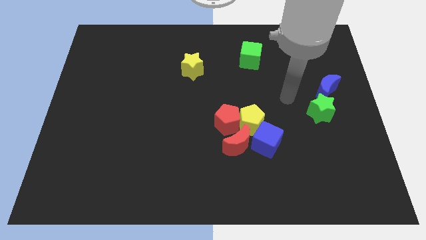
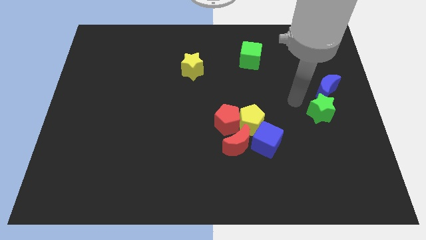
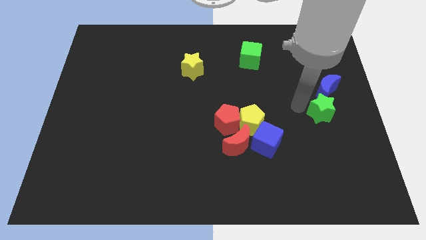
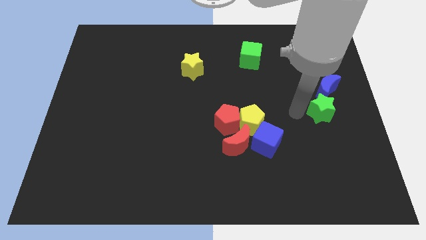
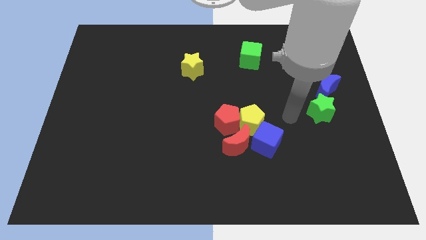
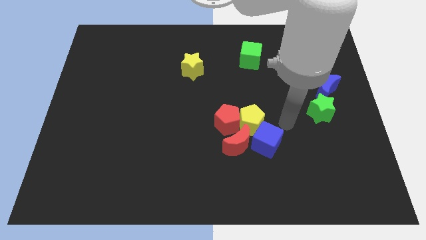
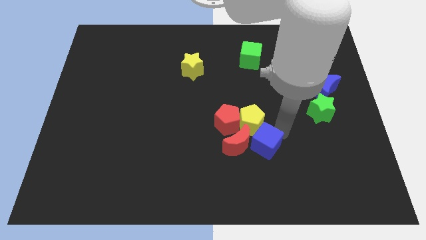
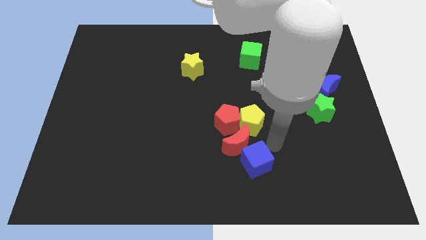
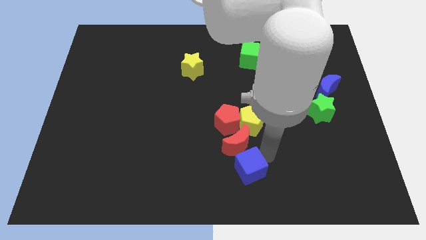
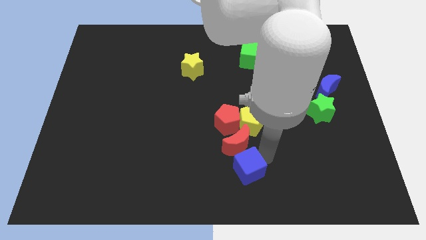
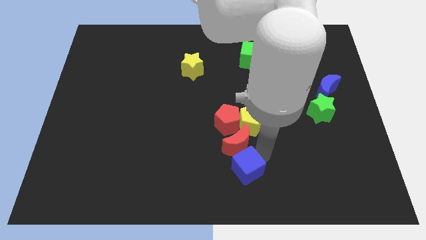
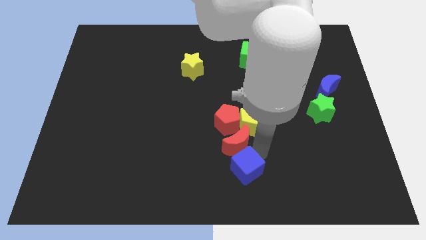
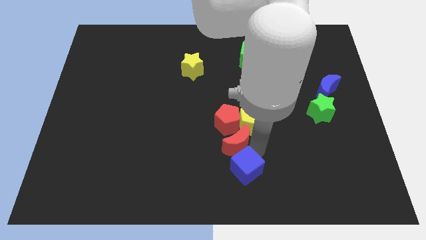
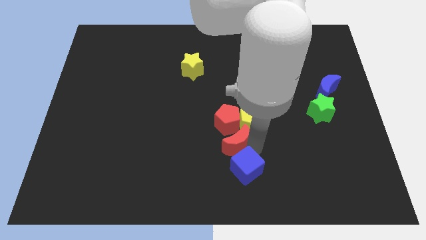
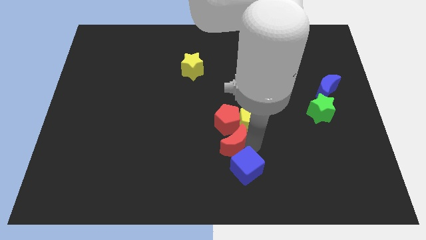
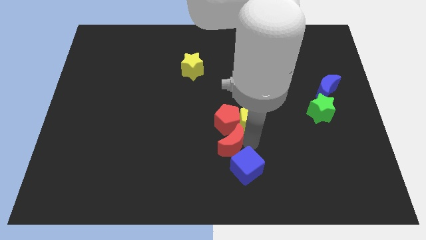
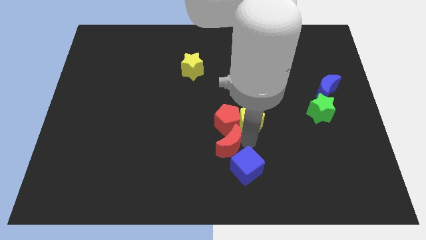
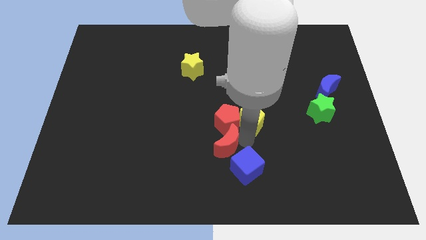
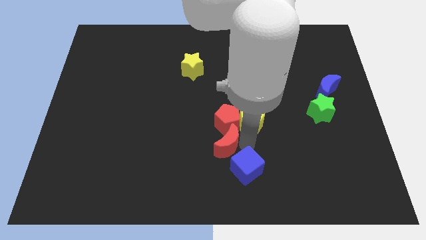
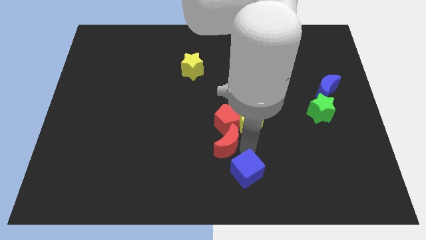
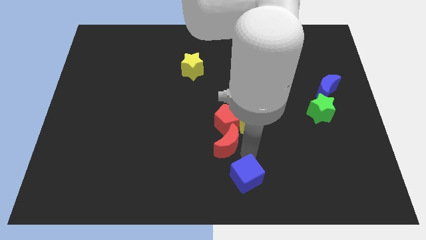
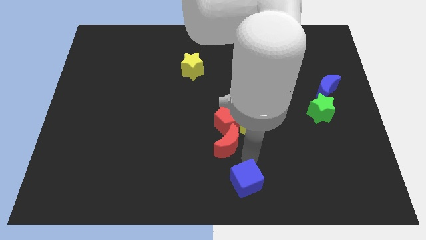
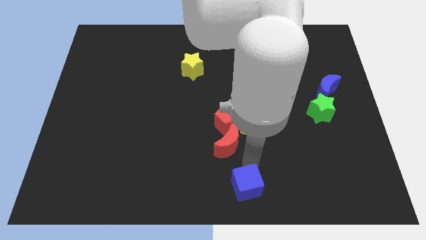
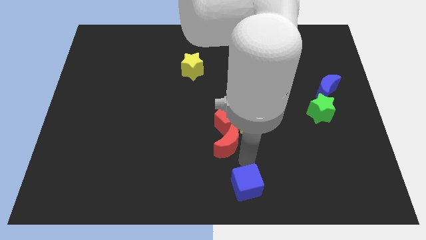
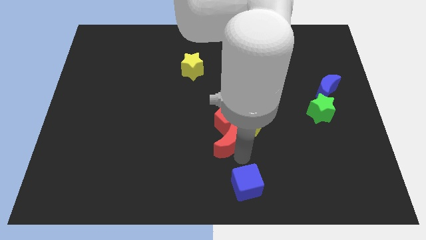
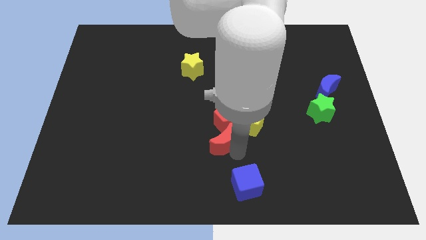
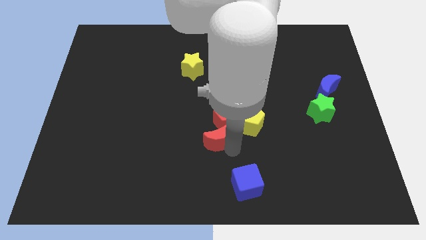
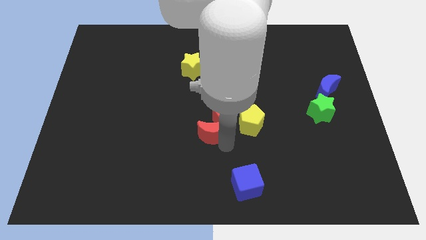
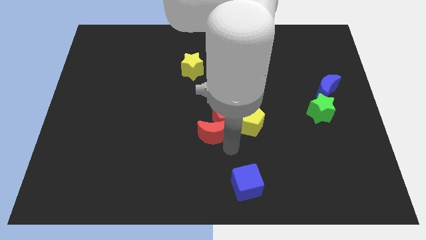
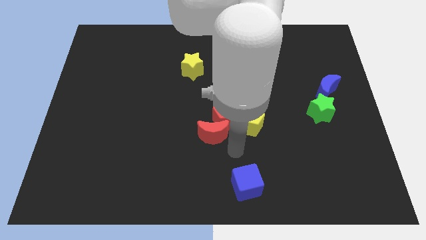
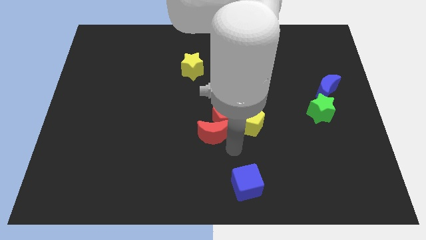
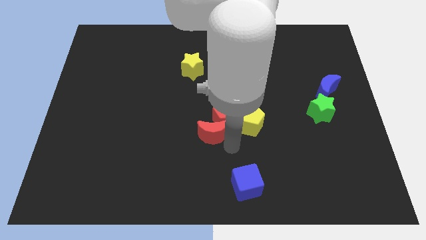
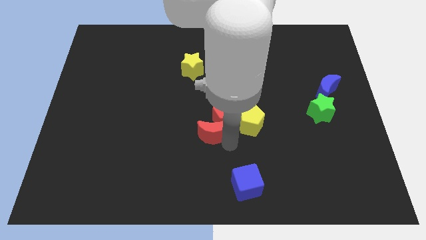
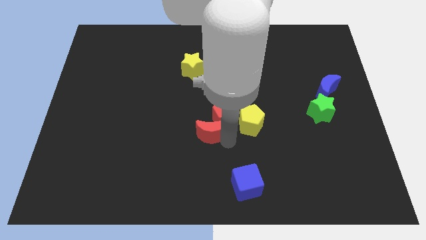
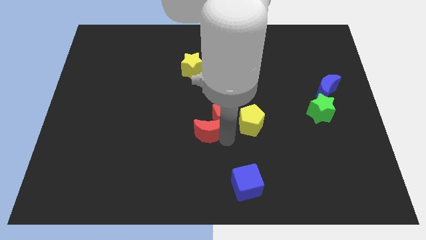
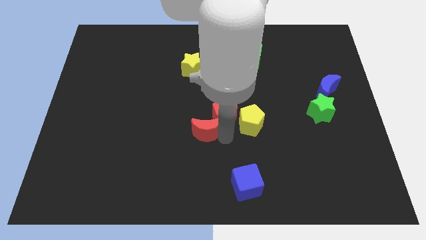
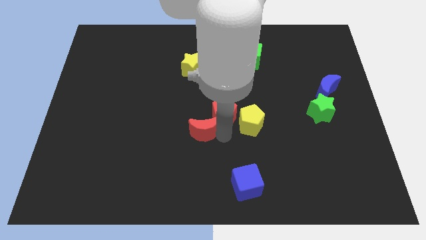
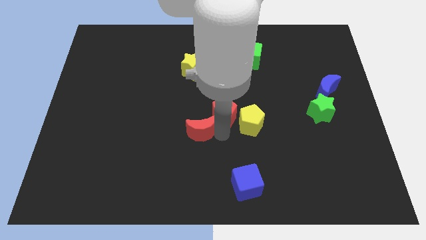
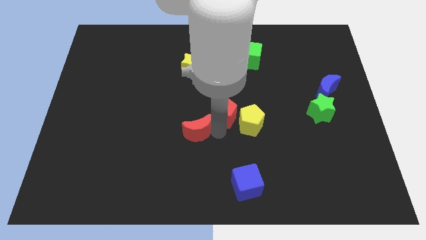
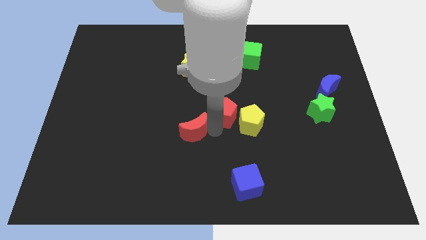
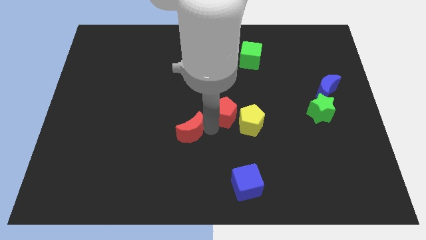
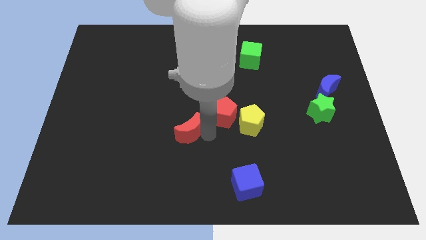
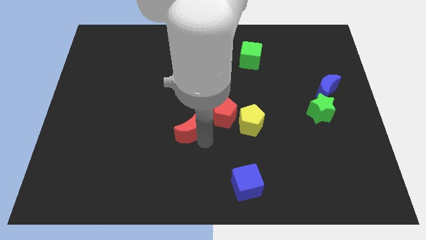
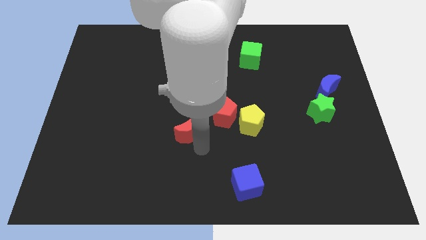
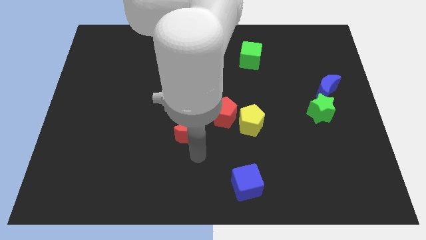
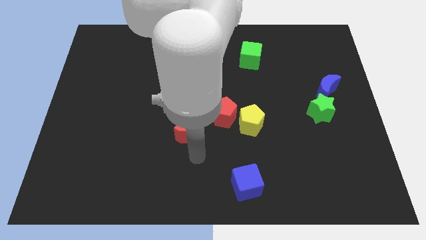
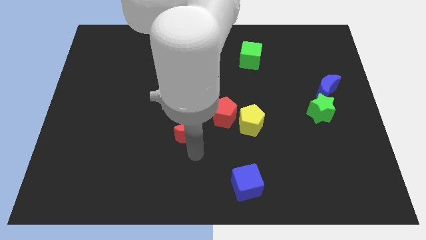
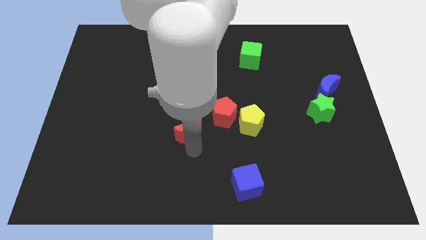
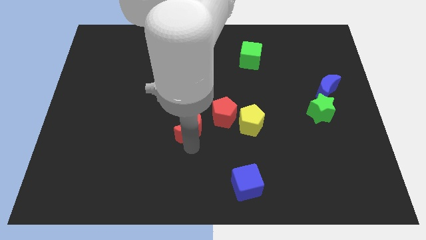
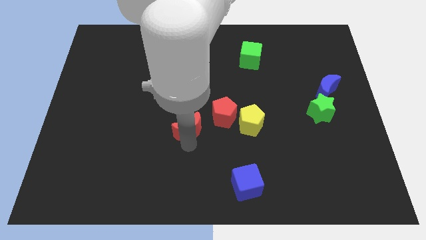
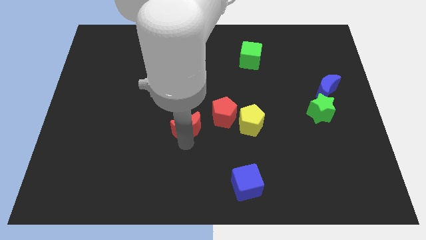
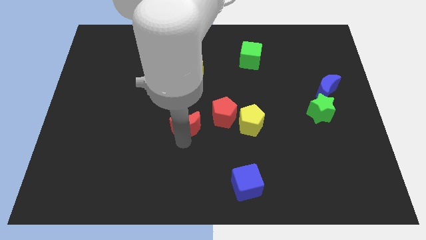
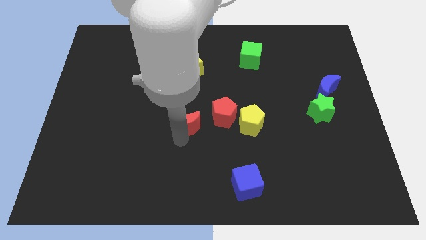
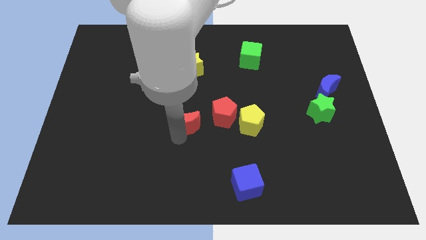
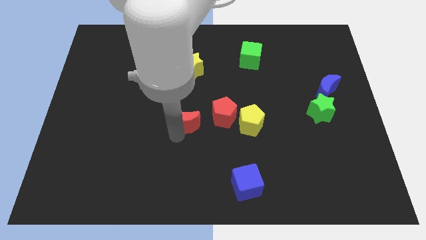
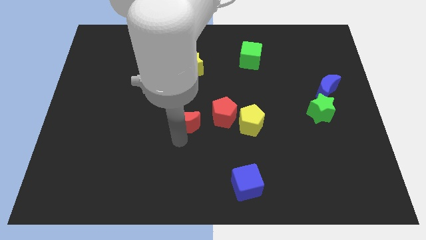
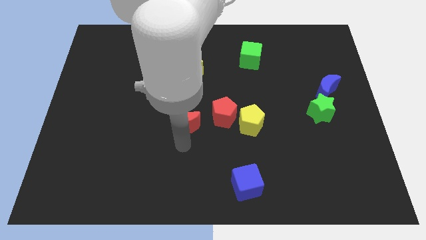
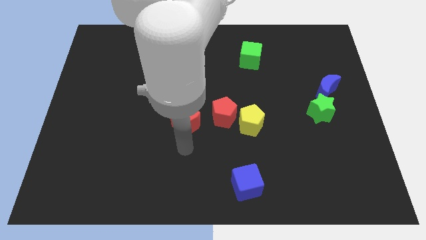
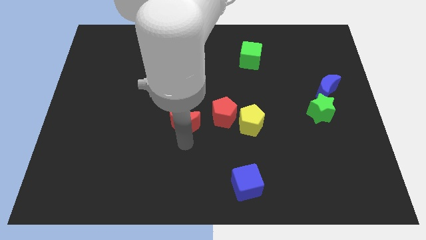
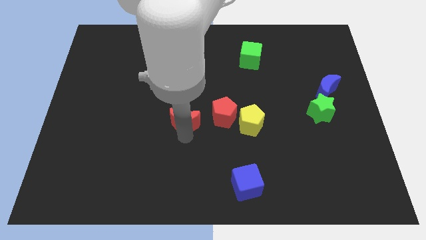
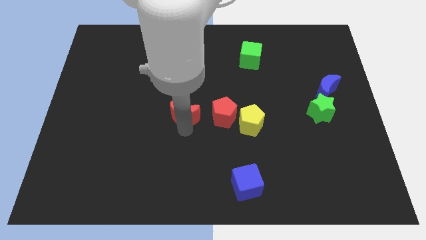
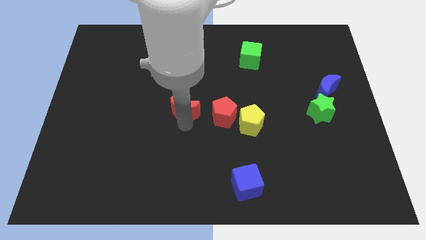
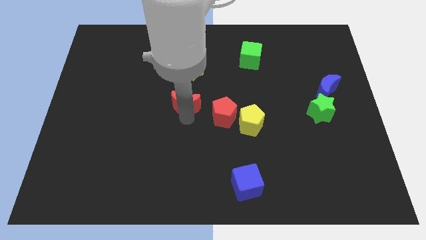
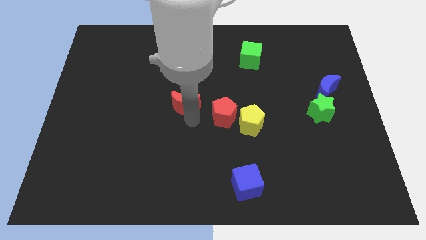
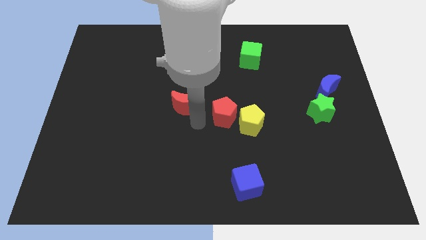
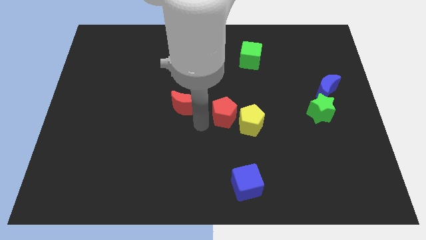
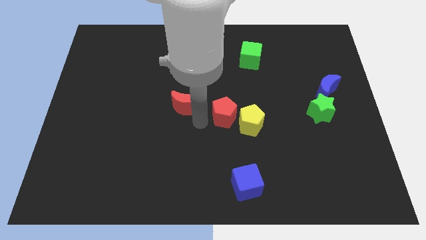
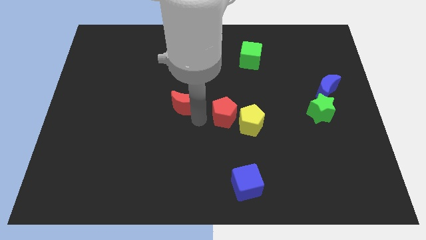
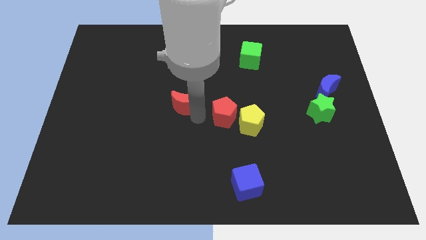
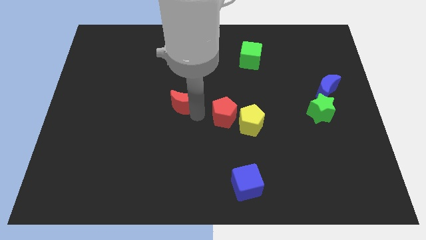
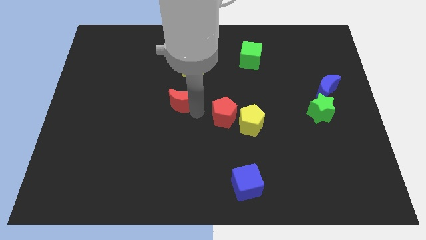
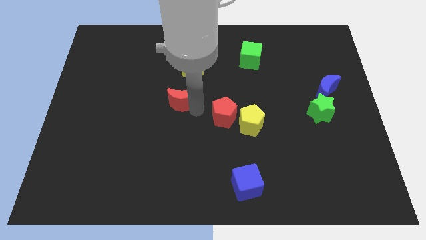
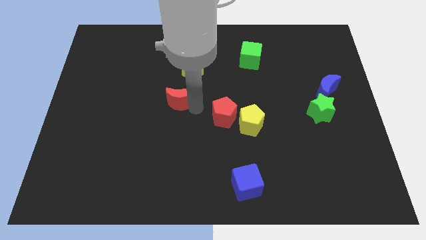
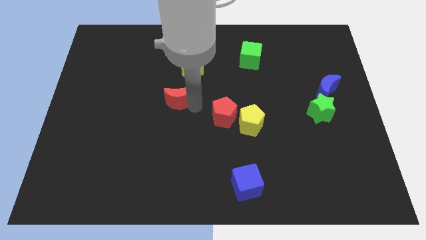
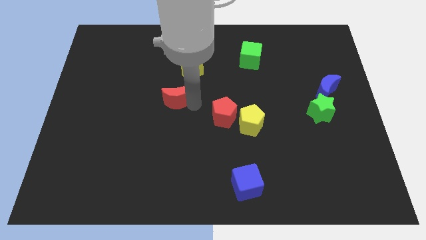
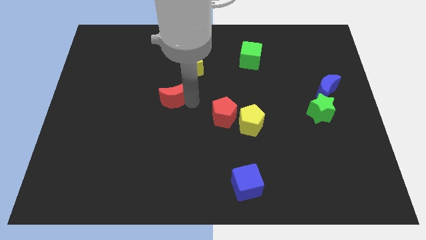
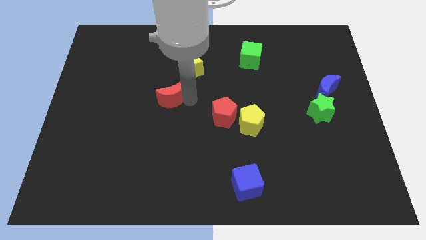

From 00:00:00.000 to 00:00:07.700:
slide the red moon diagonally up and left
